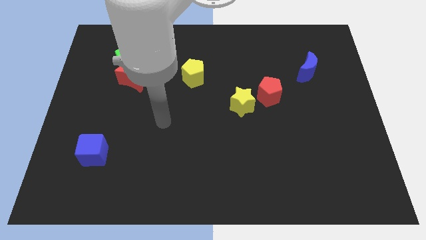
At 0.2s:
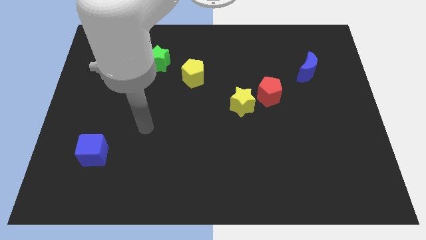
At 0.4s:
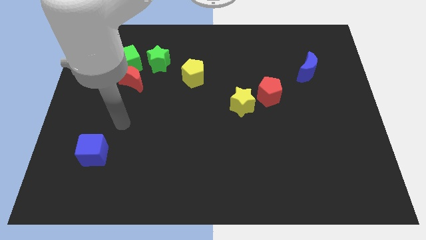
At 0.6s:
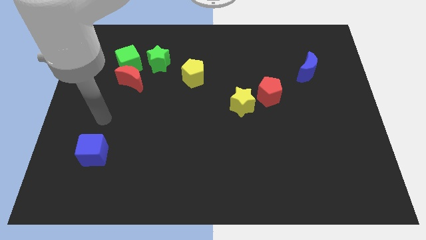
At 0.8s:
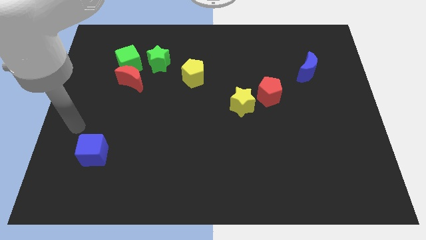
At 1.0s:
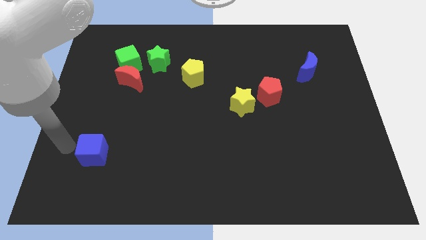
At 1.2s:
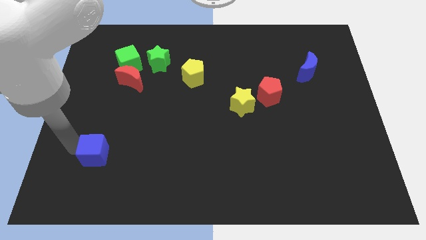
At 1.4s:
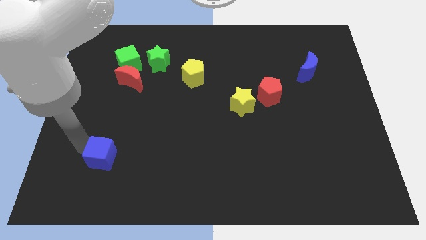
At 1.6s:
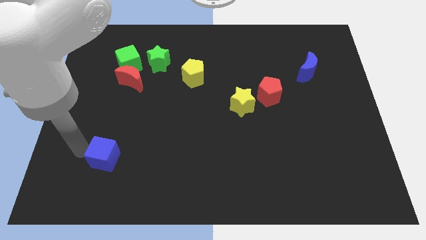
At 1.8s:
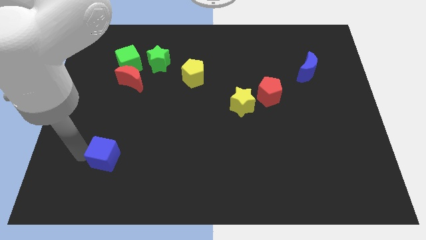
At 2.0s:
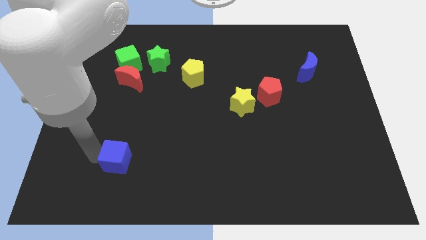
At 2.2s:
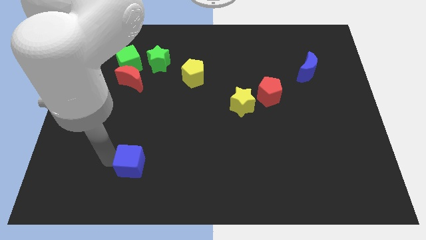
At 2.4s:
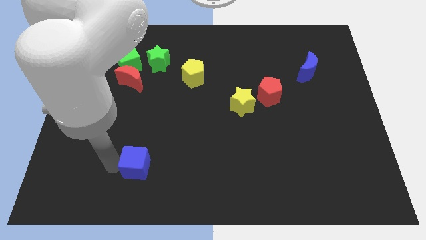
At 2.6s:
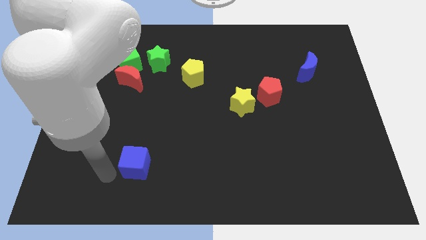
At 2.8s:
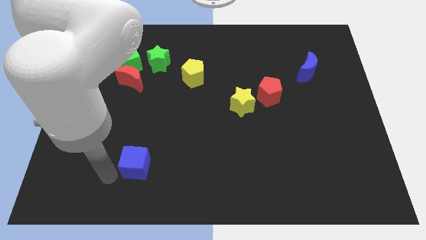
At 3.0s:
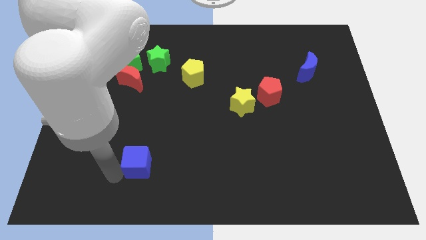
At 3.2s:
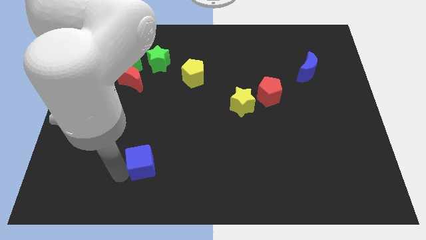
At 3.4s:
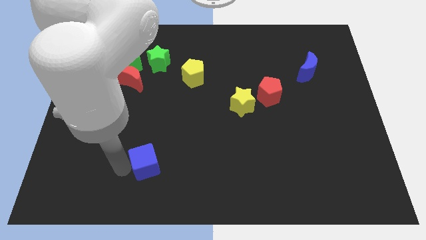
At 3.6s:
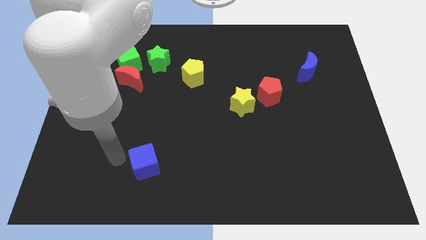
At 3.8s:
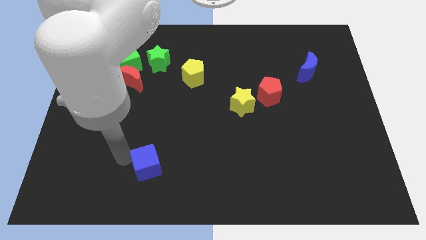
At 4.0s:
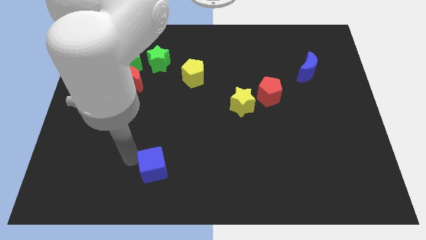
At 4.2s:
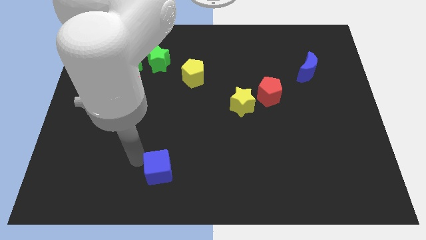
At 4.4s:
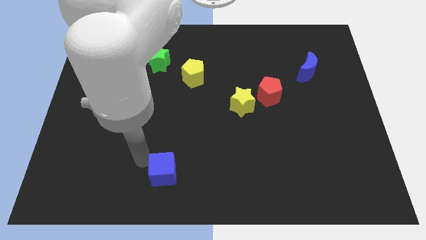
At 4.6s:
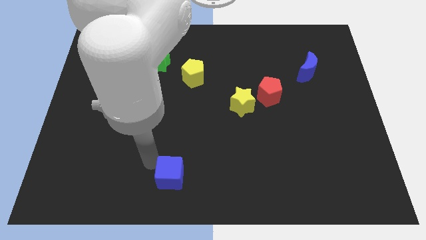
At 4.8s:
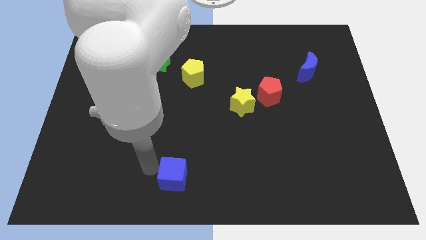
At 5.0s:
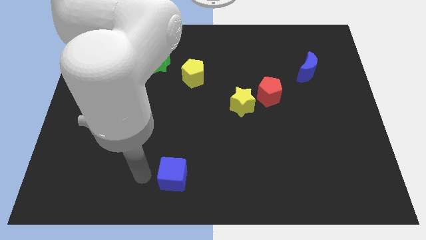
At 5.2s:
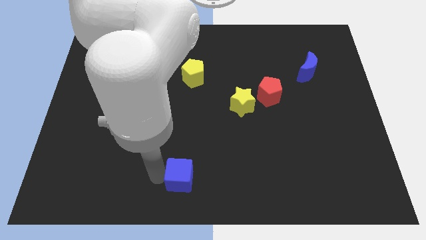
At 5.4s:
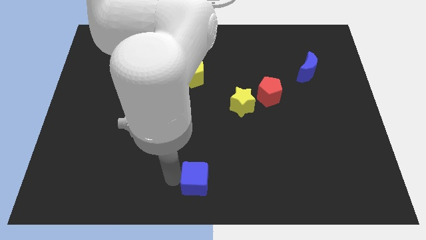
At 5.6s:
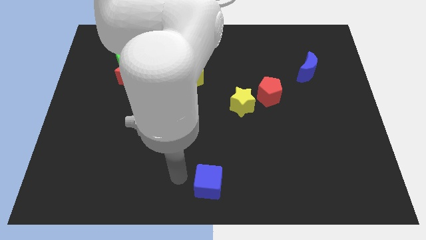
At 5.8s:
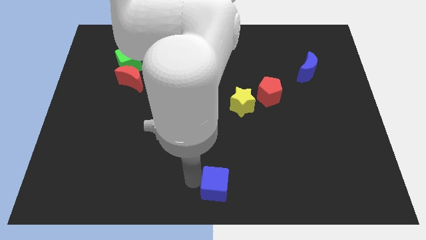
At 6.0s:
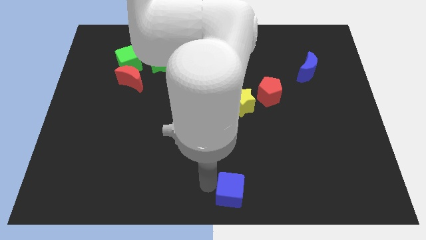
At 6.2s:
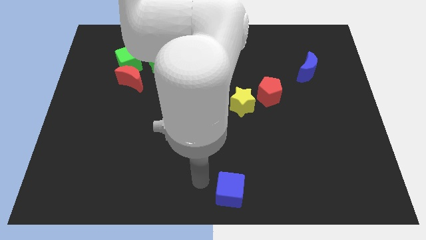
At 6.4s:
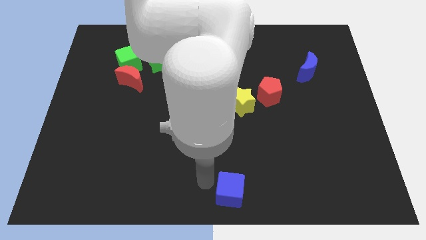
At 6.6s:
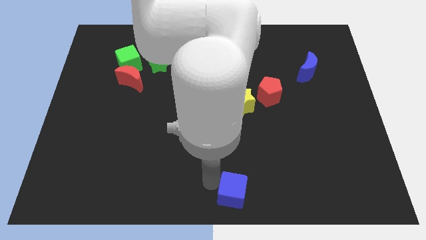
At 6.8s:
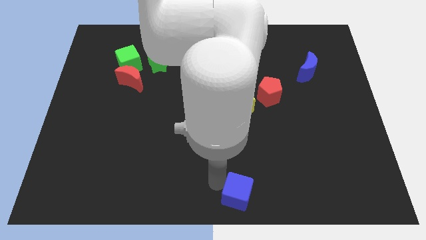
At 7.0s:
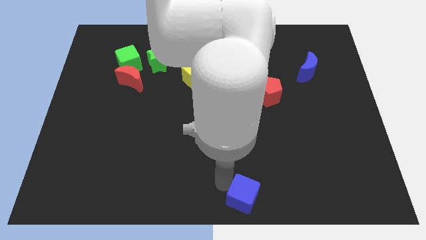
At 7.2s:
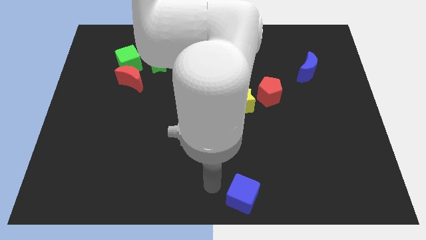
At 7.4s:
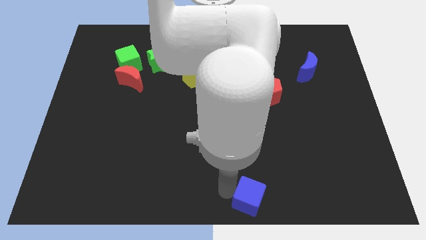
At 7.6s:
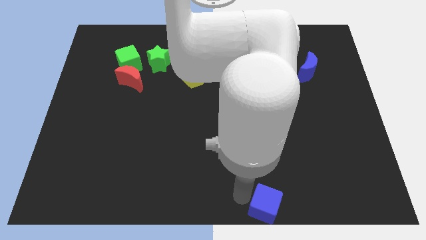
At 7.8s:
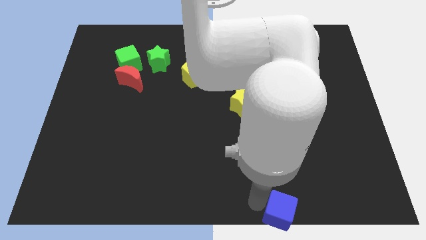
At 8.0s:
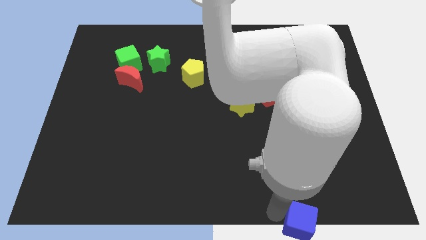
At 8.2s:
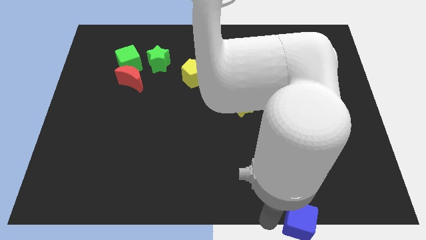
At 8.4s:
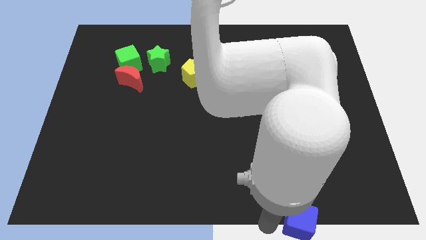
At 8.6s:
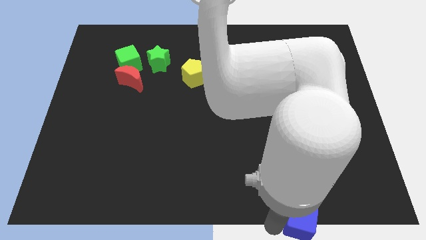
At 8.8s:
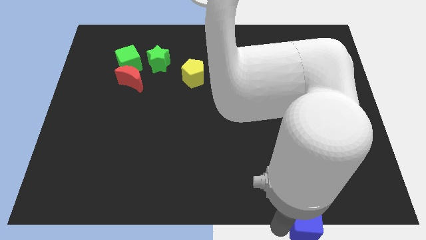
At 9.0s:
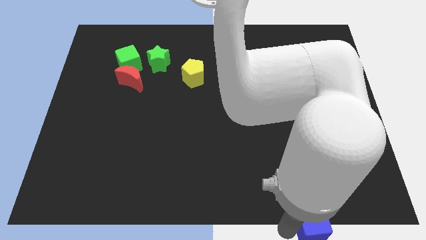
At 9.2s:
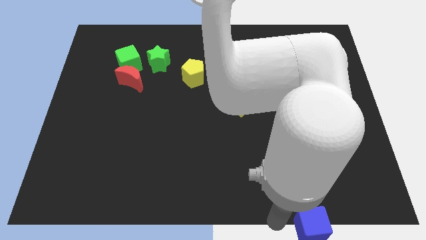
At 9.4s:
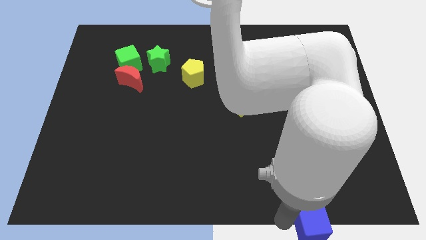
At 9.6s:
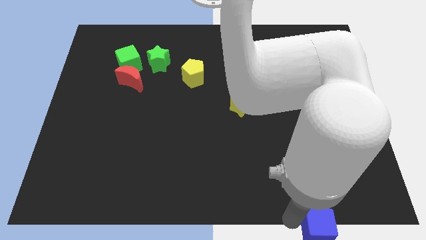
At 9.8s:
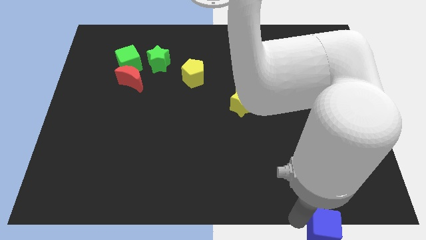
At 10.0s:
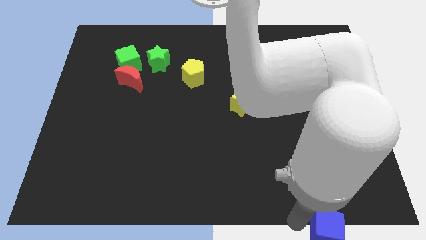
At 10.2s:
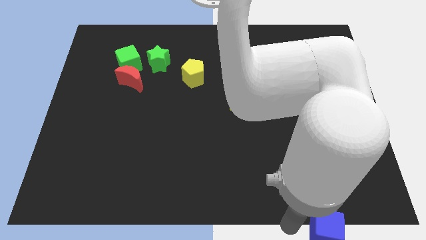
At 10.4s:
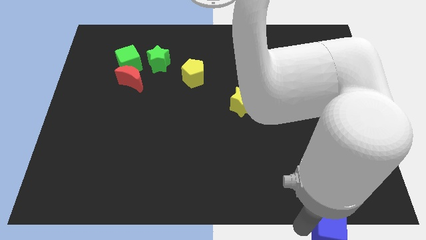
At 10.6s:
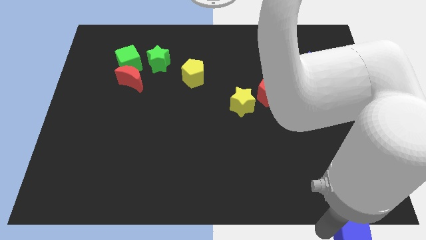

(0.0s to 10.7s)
move the blue cube to the bottom right of the board

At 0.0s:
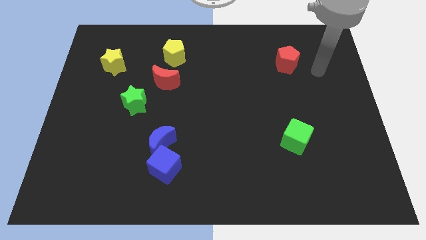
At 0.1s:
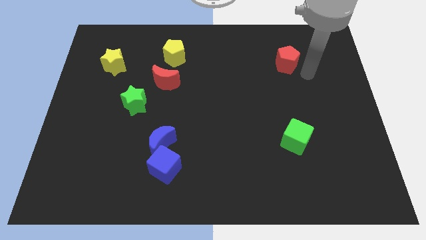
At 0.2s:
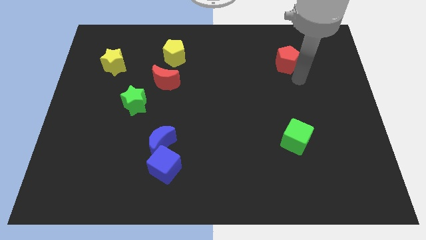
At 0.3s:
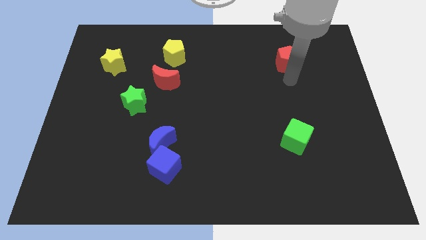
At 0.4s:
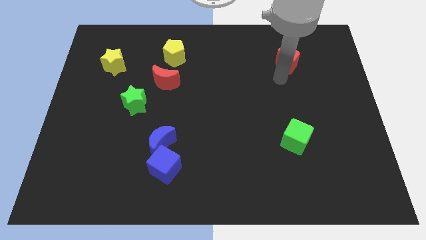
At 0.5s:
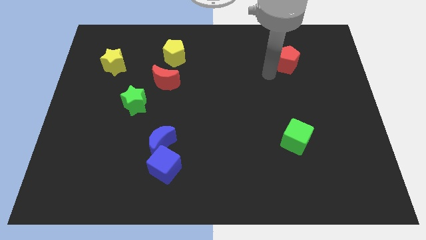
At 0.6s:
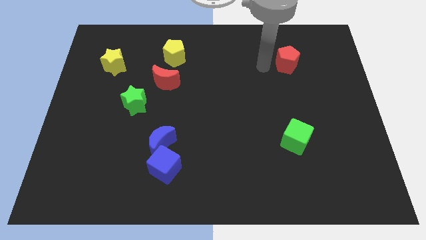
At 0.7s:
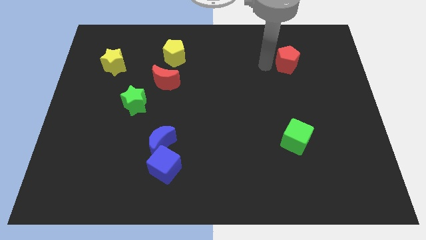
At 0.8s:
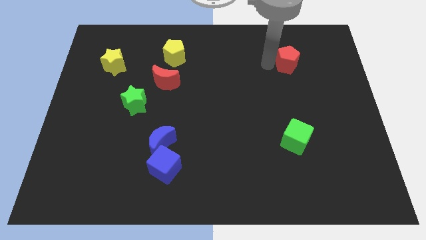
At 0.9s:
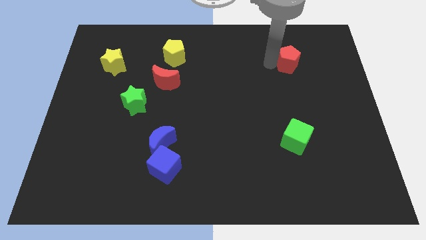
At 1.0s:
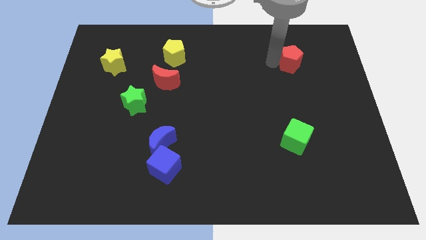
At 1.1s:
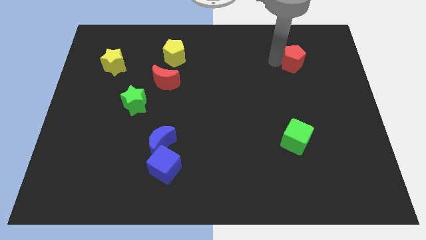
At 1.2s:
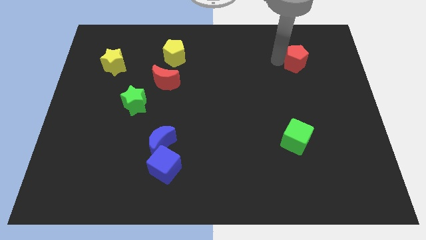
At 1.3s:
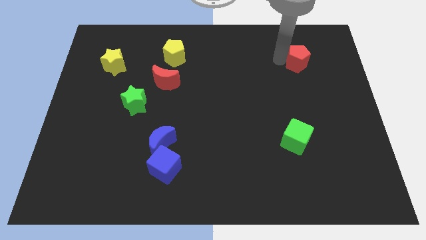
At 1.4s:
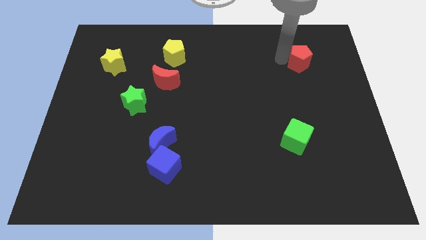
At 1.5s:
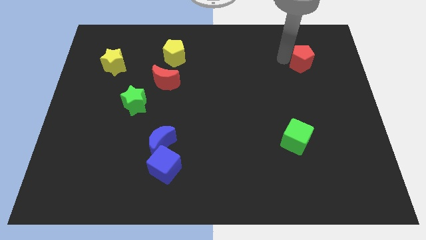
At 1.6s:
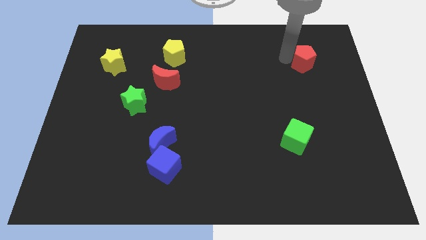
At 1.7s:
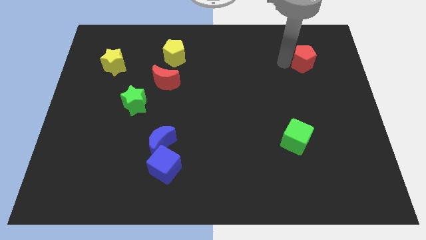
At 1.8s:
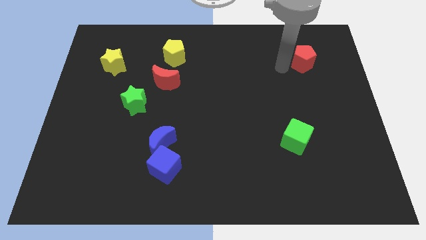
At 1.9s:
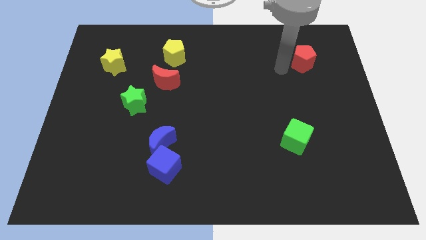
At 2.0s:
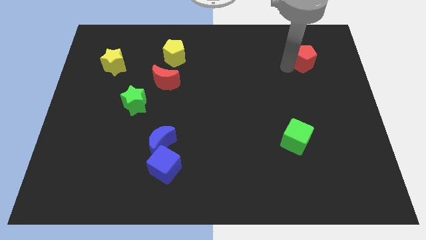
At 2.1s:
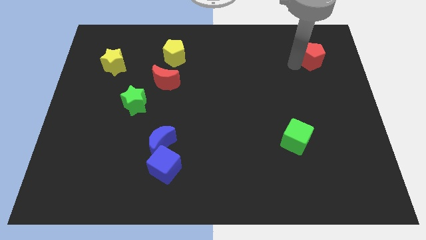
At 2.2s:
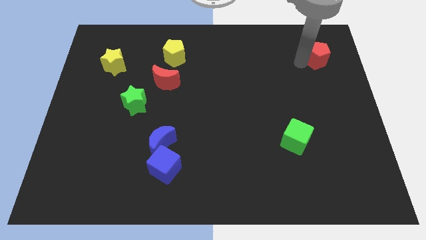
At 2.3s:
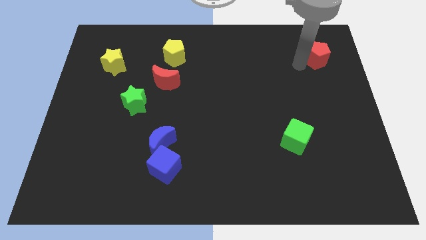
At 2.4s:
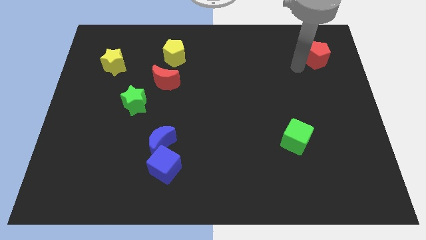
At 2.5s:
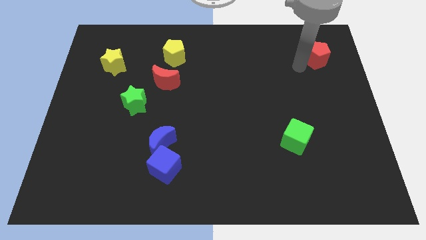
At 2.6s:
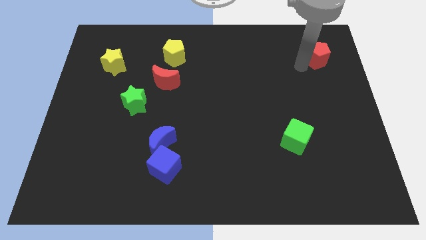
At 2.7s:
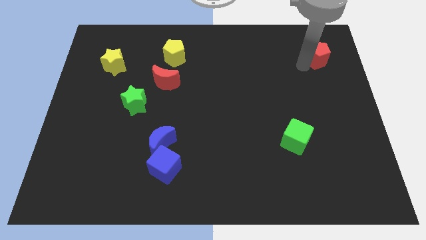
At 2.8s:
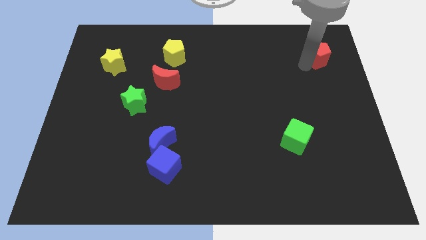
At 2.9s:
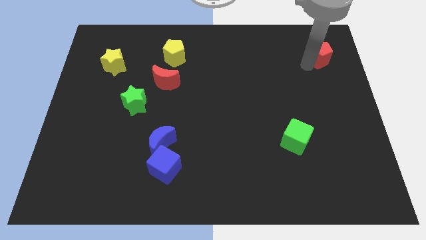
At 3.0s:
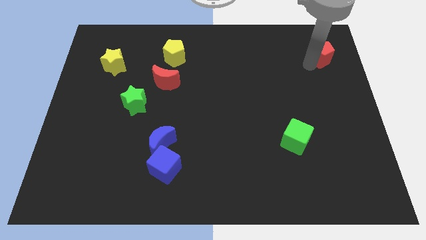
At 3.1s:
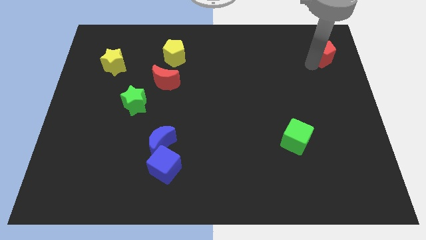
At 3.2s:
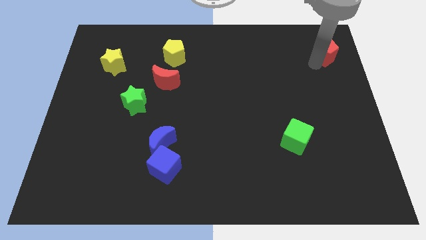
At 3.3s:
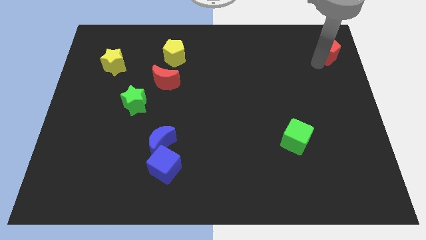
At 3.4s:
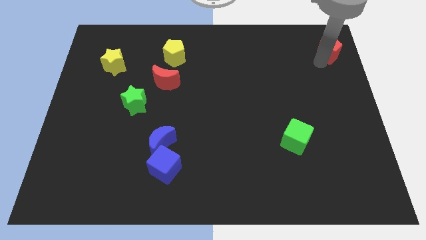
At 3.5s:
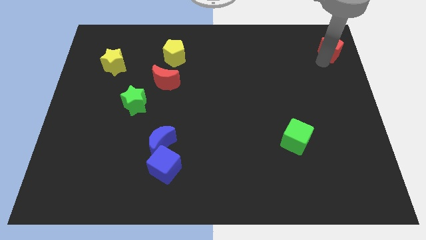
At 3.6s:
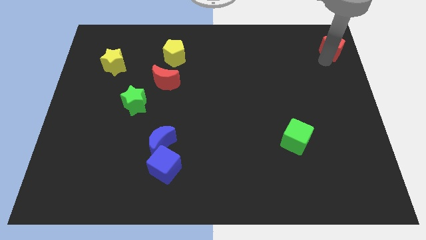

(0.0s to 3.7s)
move the red pentagon to the top right corner
